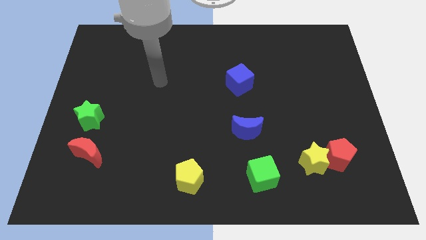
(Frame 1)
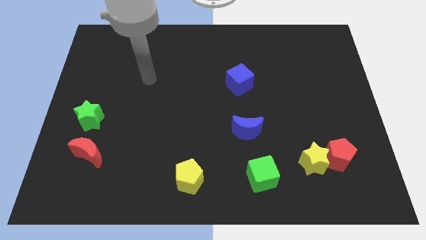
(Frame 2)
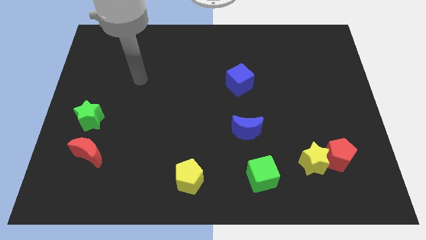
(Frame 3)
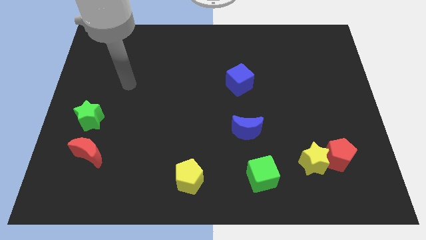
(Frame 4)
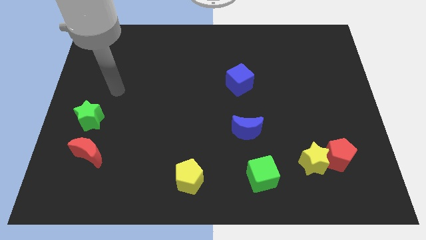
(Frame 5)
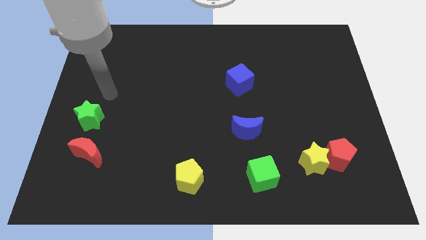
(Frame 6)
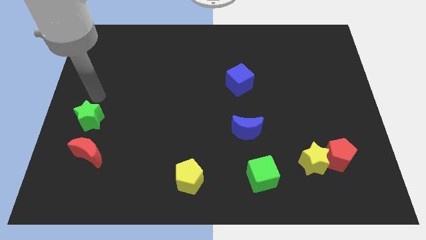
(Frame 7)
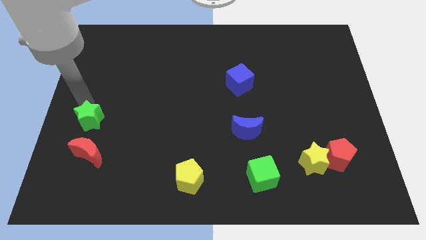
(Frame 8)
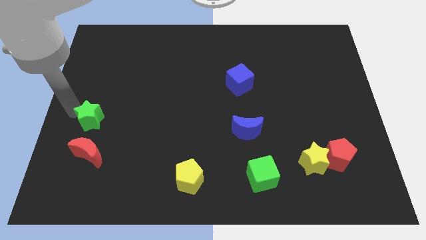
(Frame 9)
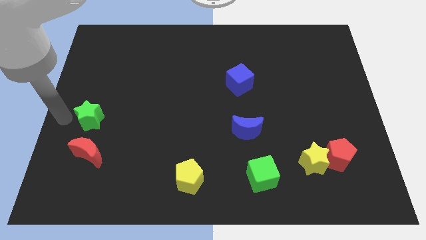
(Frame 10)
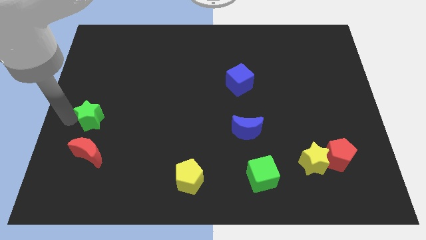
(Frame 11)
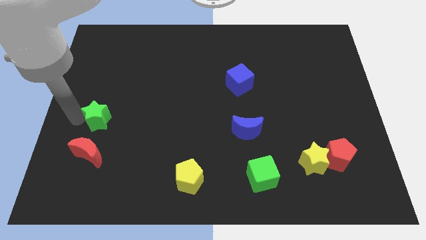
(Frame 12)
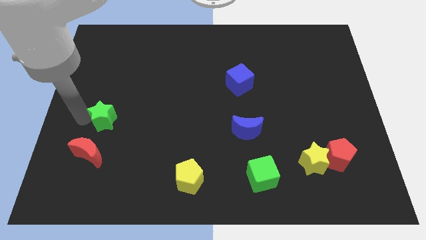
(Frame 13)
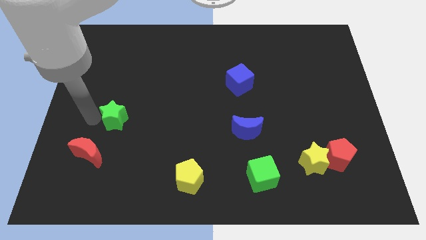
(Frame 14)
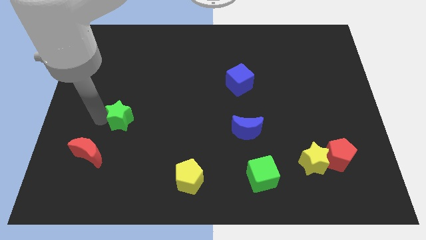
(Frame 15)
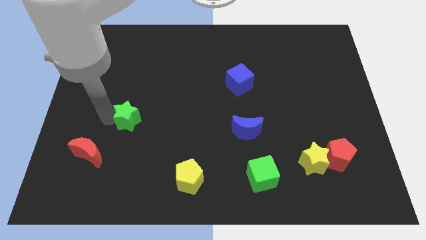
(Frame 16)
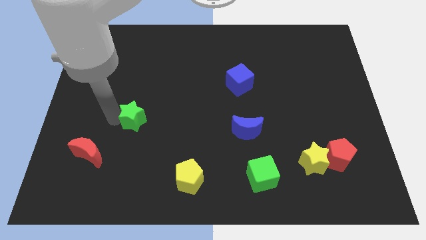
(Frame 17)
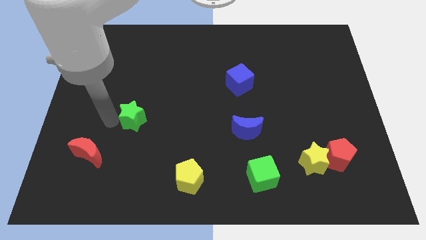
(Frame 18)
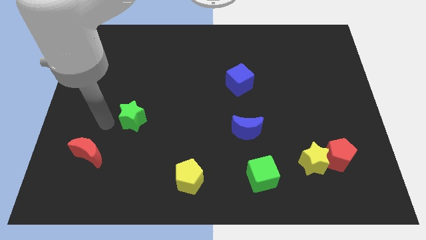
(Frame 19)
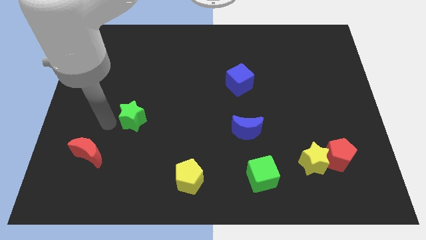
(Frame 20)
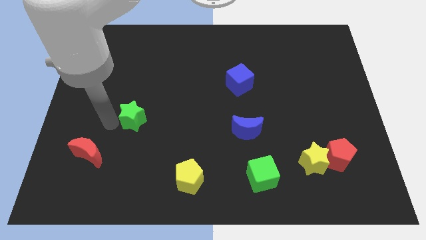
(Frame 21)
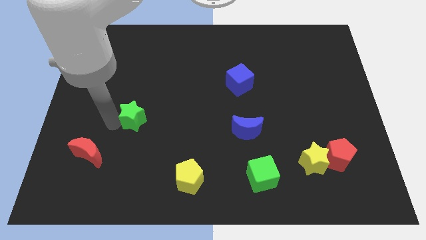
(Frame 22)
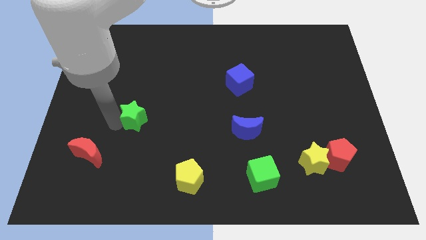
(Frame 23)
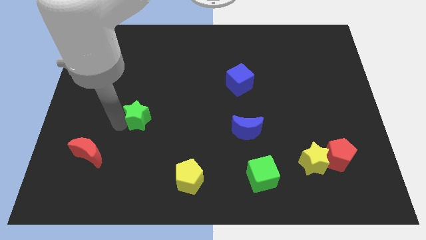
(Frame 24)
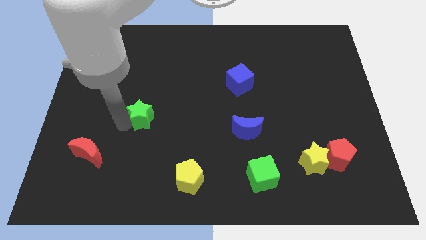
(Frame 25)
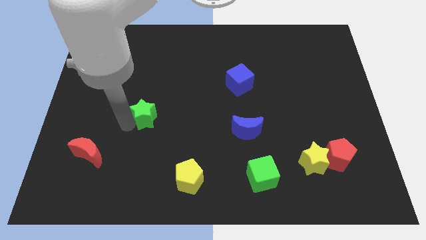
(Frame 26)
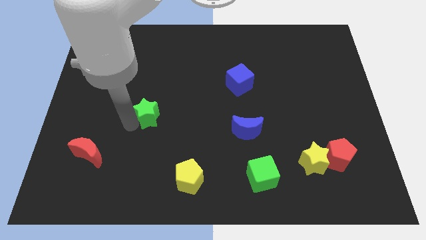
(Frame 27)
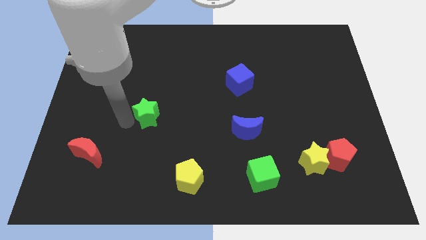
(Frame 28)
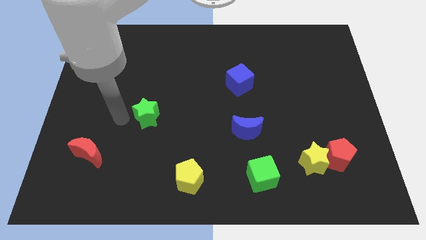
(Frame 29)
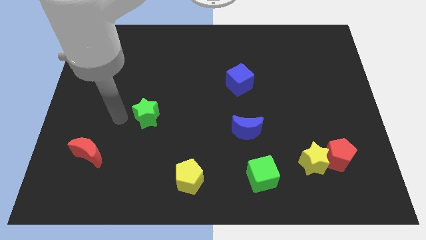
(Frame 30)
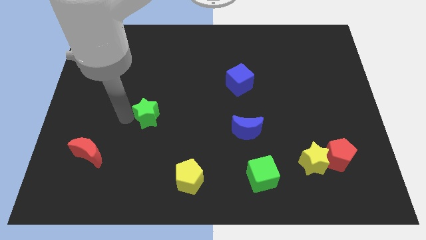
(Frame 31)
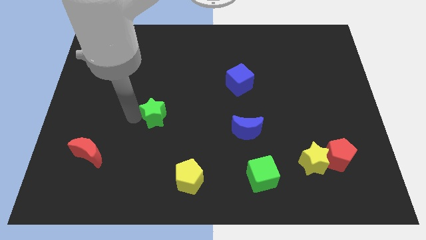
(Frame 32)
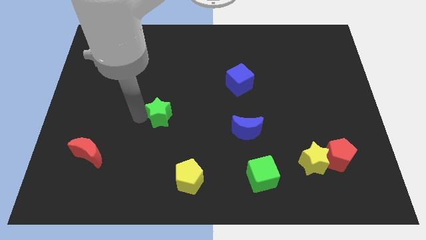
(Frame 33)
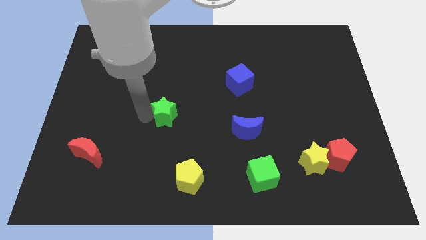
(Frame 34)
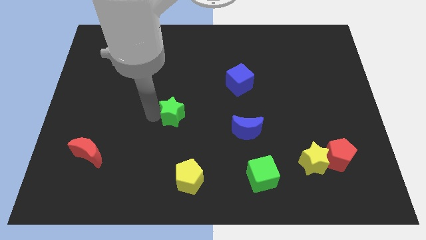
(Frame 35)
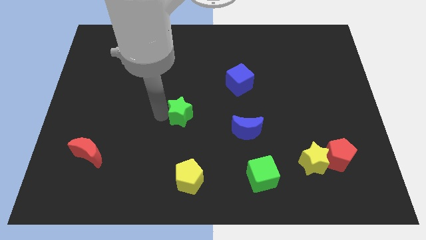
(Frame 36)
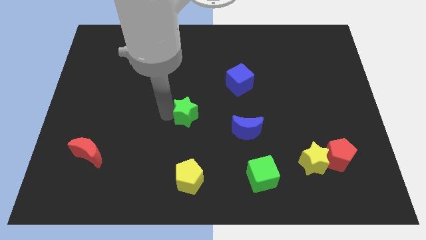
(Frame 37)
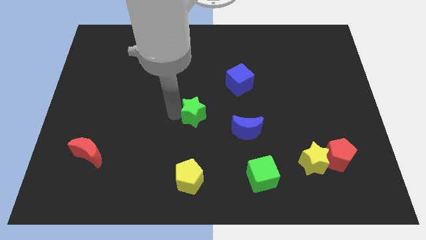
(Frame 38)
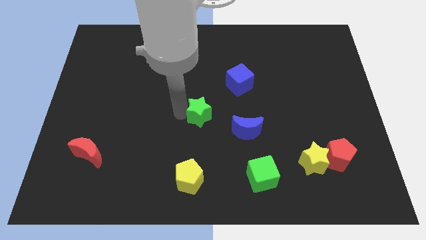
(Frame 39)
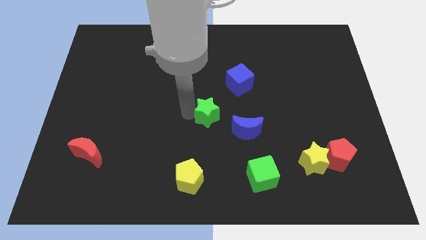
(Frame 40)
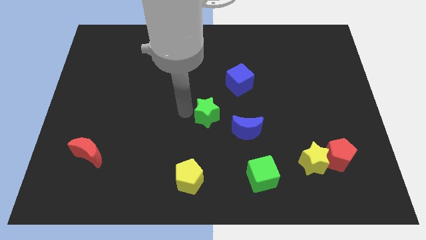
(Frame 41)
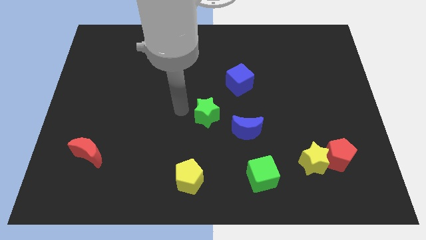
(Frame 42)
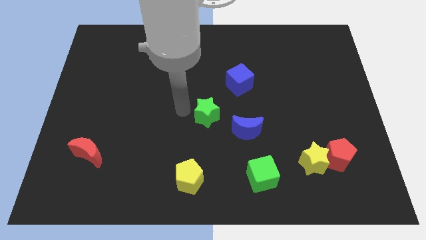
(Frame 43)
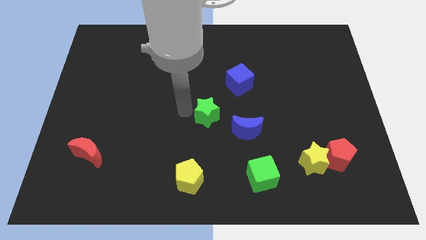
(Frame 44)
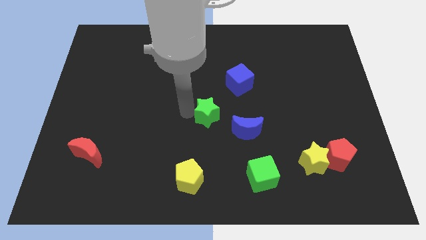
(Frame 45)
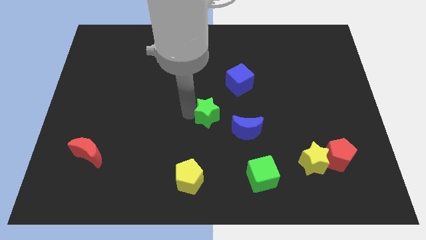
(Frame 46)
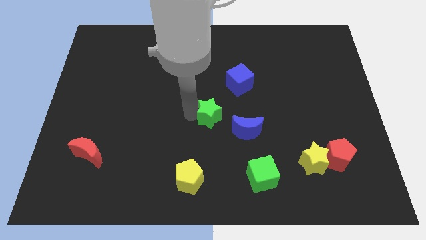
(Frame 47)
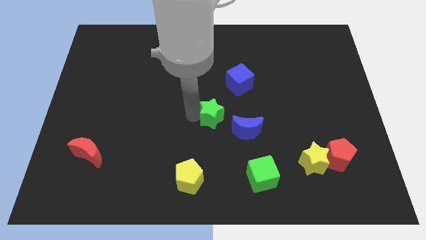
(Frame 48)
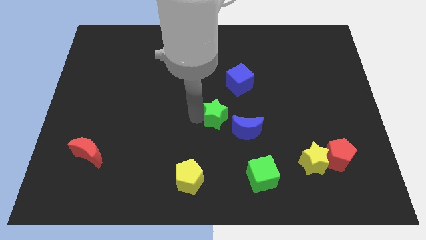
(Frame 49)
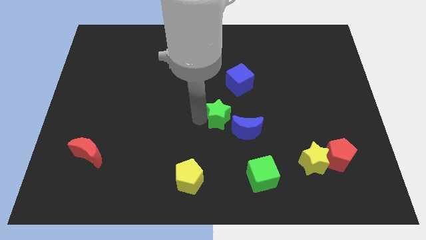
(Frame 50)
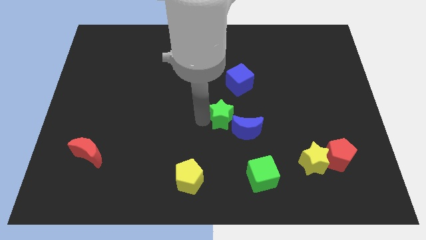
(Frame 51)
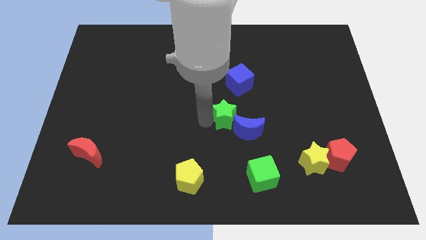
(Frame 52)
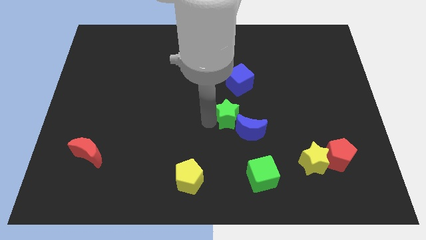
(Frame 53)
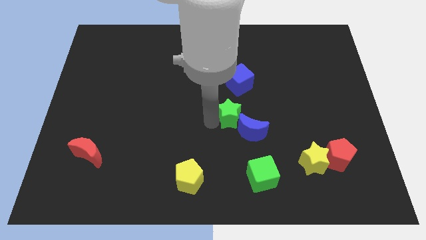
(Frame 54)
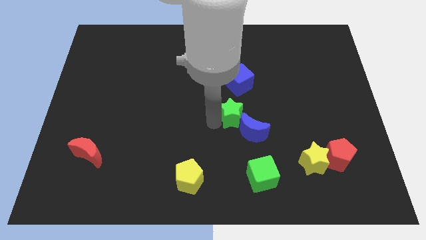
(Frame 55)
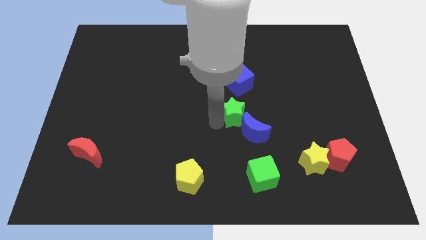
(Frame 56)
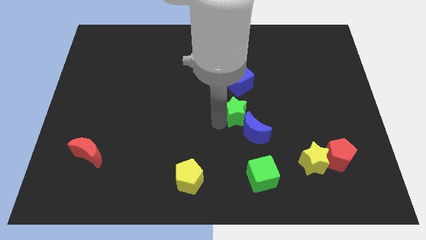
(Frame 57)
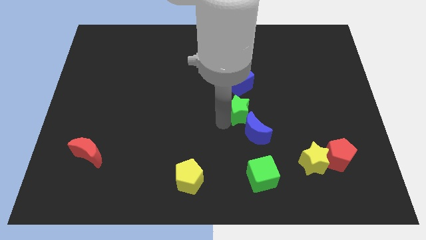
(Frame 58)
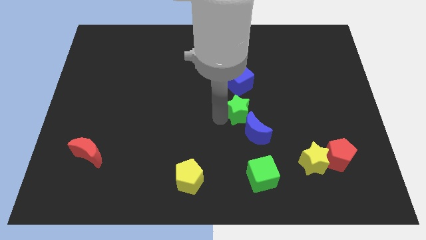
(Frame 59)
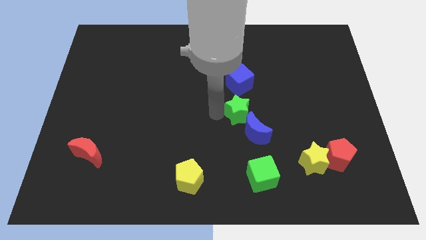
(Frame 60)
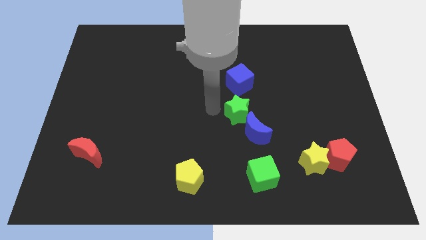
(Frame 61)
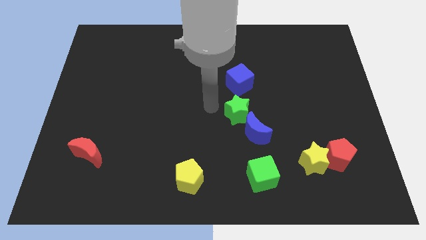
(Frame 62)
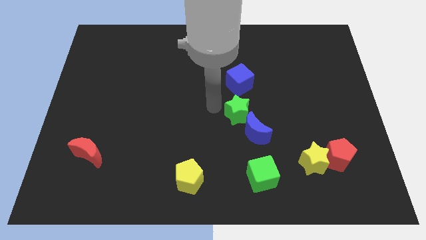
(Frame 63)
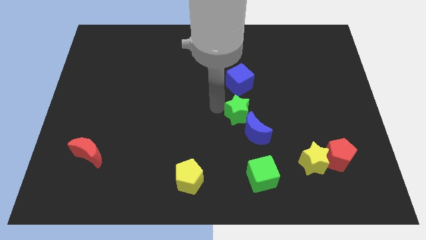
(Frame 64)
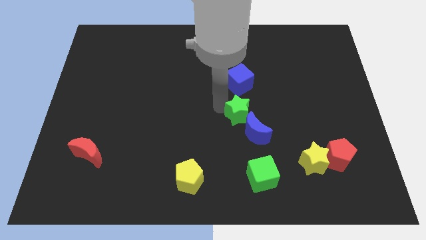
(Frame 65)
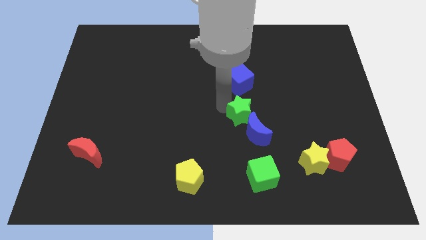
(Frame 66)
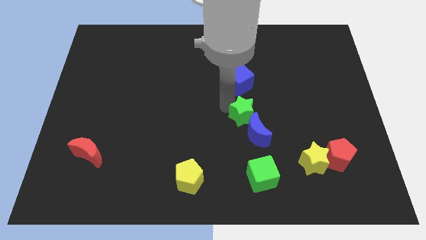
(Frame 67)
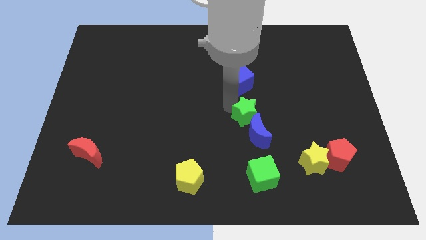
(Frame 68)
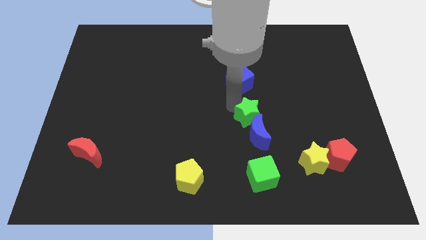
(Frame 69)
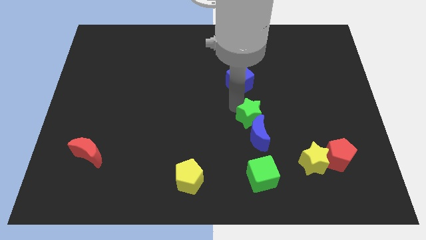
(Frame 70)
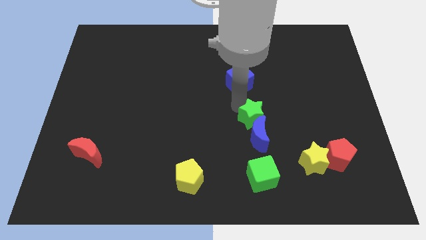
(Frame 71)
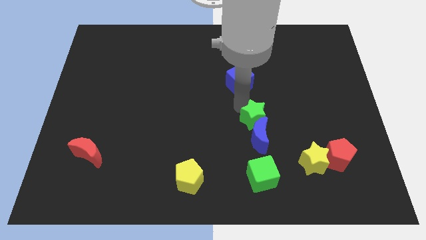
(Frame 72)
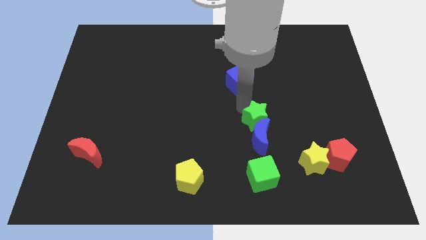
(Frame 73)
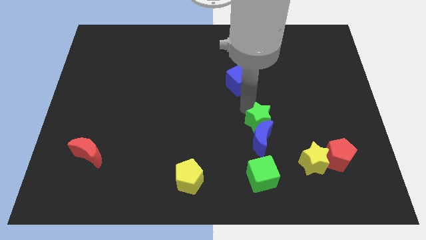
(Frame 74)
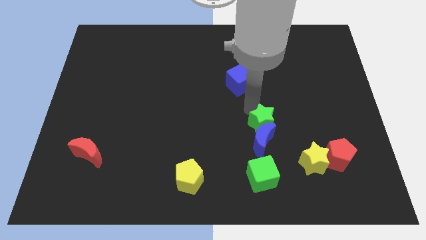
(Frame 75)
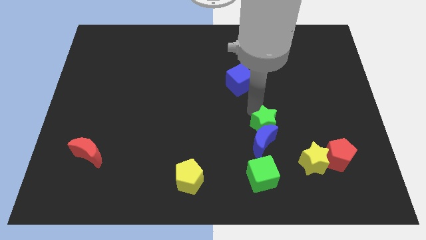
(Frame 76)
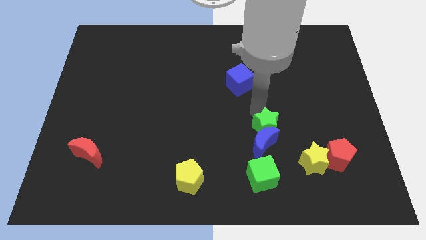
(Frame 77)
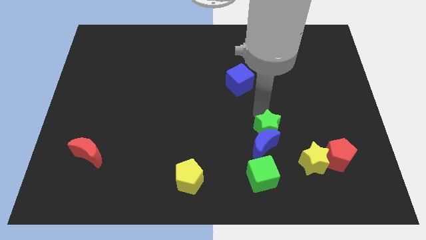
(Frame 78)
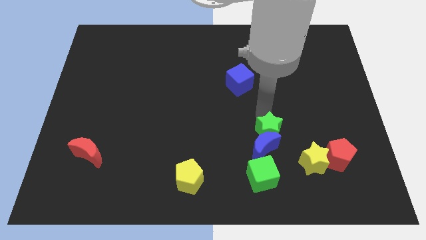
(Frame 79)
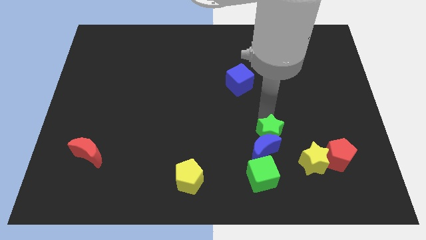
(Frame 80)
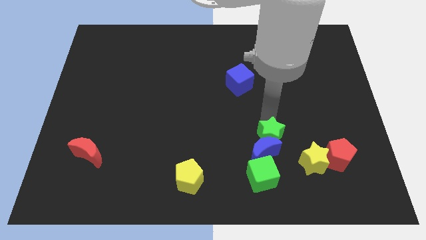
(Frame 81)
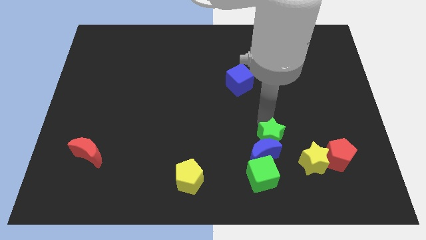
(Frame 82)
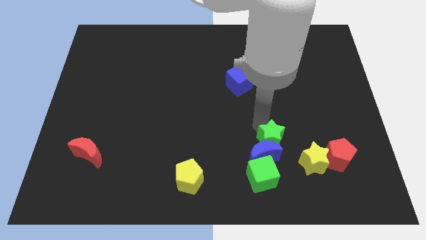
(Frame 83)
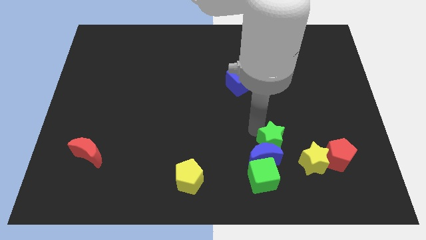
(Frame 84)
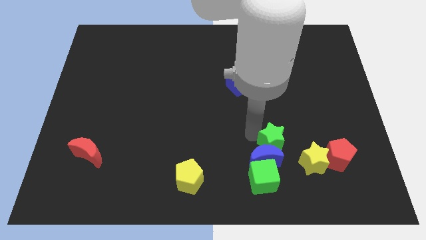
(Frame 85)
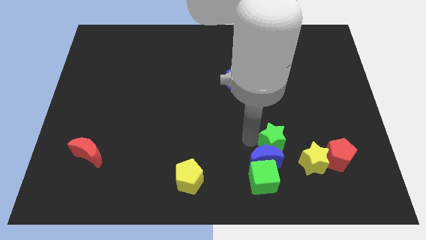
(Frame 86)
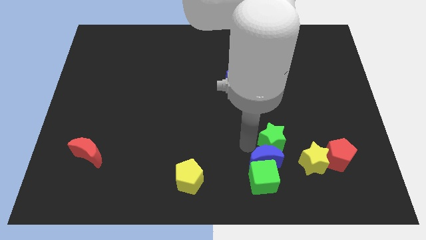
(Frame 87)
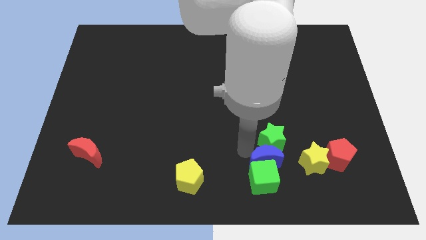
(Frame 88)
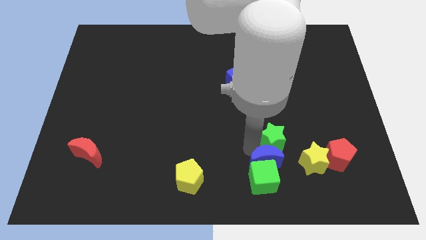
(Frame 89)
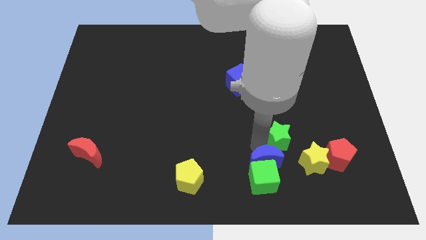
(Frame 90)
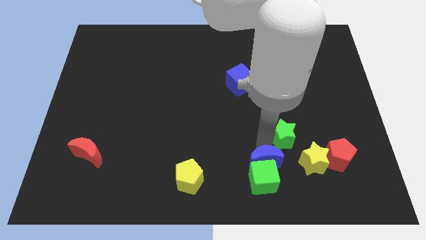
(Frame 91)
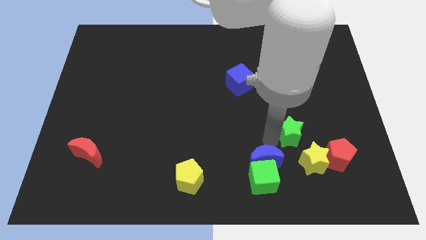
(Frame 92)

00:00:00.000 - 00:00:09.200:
move the green star to the top left of the red pentagon
